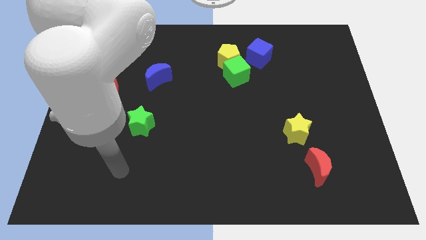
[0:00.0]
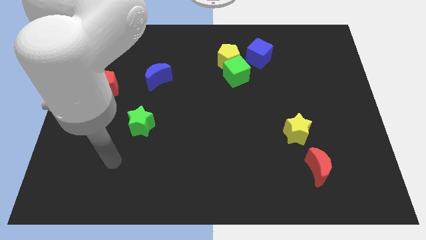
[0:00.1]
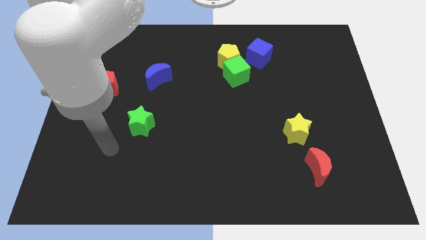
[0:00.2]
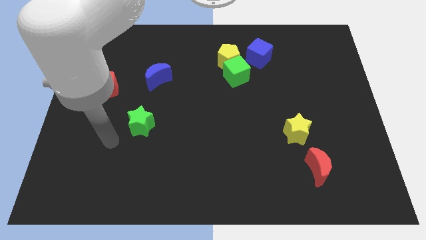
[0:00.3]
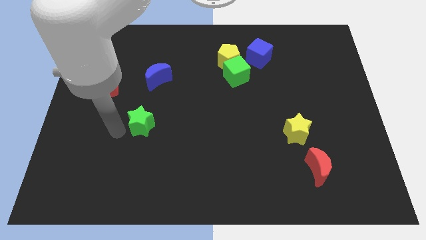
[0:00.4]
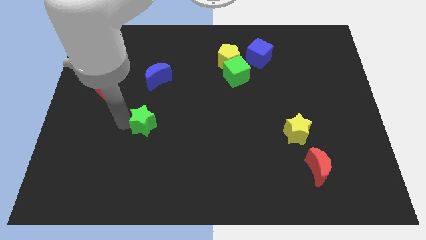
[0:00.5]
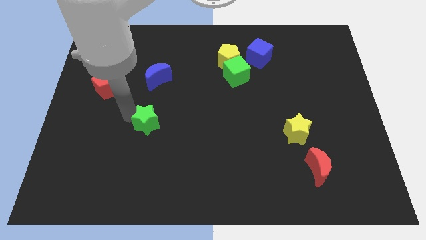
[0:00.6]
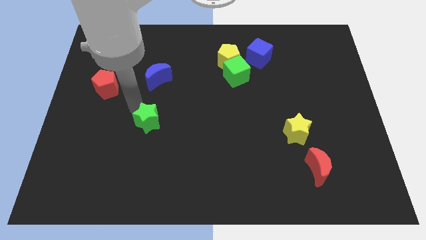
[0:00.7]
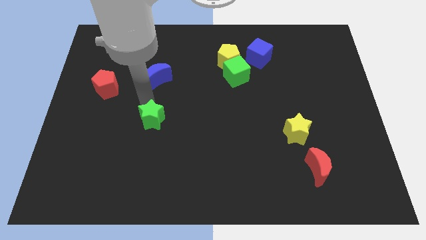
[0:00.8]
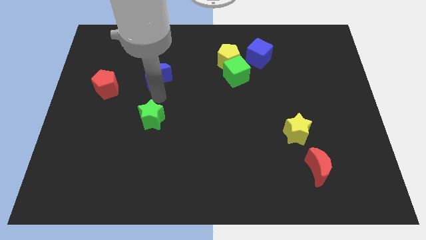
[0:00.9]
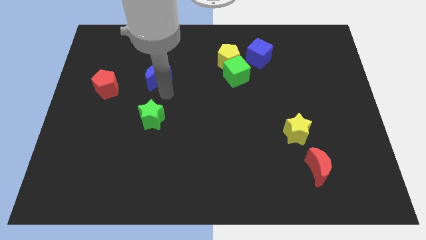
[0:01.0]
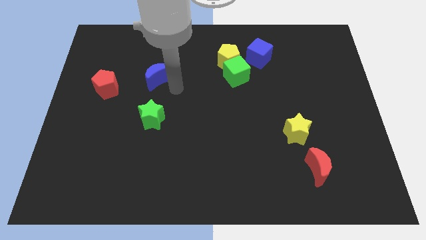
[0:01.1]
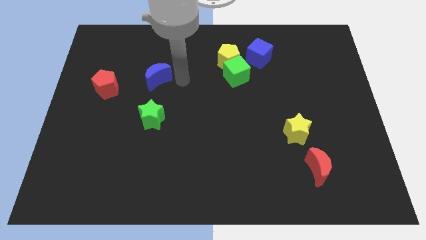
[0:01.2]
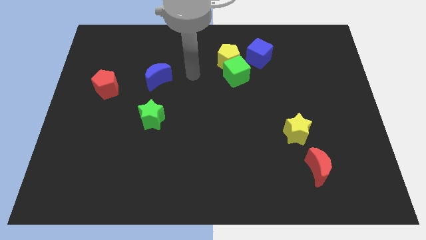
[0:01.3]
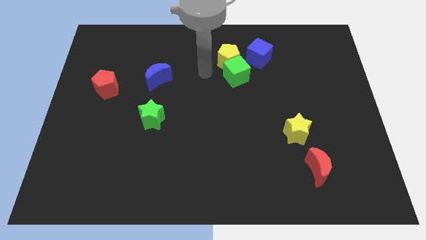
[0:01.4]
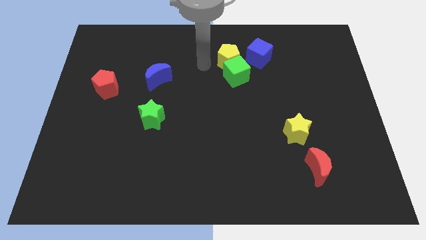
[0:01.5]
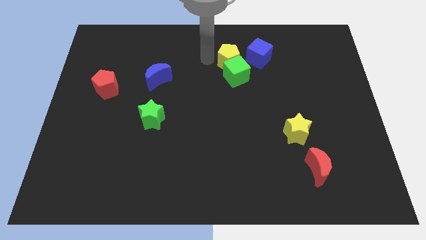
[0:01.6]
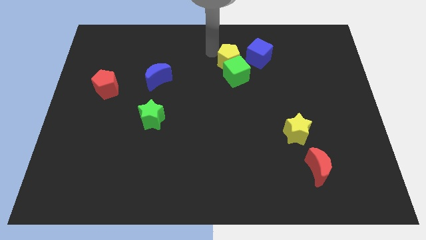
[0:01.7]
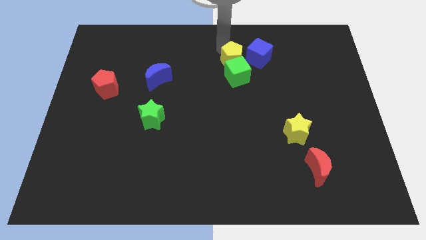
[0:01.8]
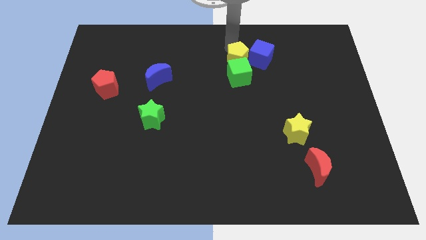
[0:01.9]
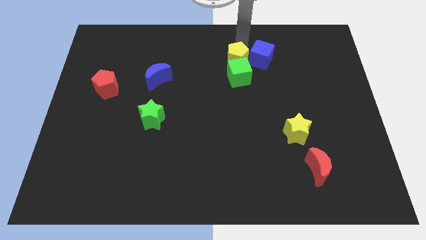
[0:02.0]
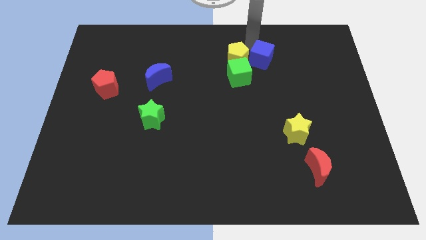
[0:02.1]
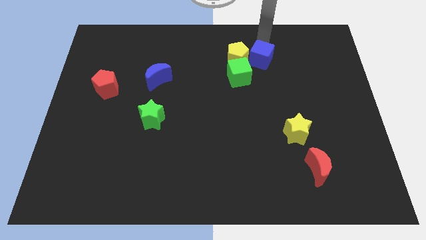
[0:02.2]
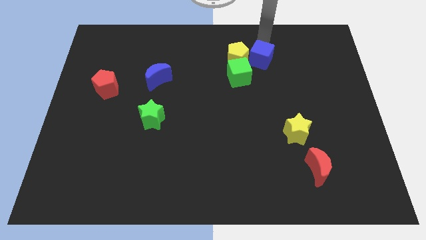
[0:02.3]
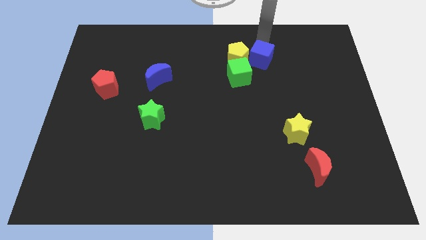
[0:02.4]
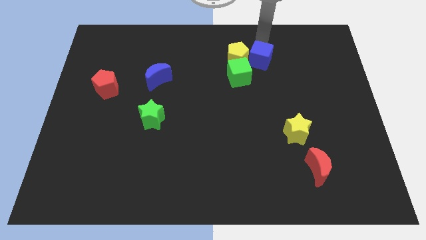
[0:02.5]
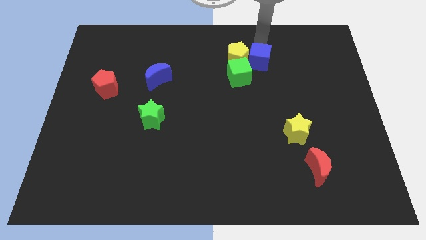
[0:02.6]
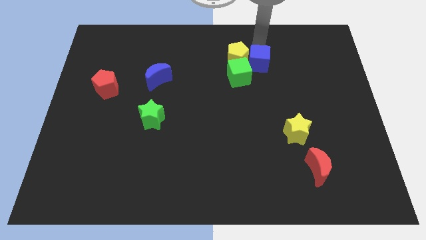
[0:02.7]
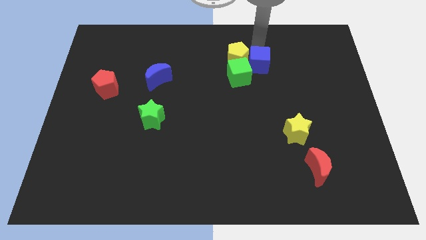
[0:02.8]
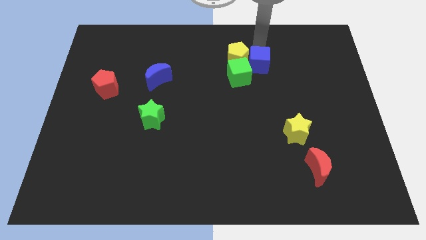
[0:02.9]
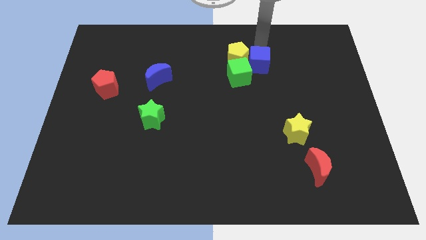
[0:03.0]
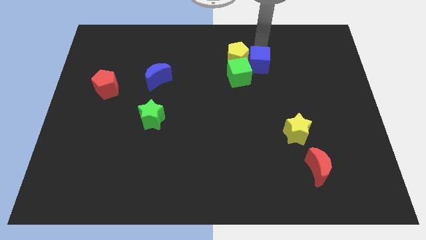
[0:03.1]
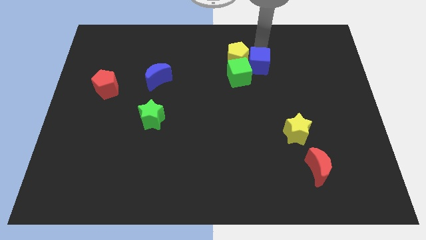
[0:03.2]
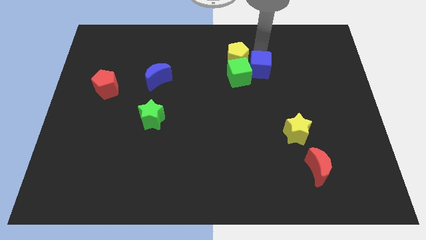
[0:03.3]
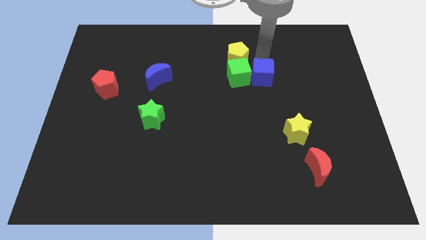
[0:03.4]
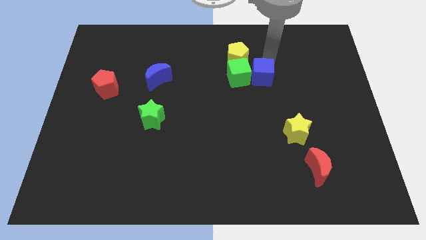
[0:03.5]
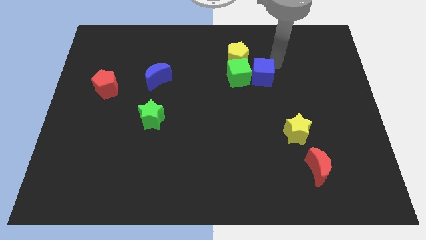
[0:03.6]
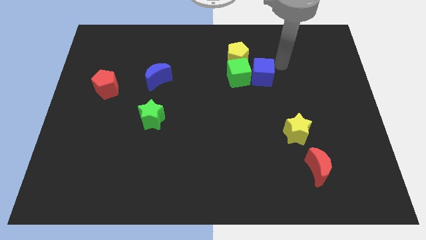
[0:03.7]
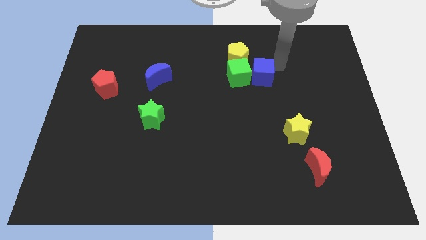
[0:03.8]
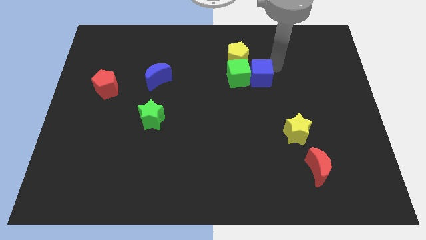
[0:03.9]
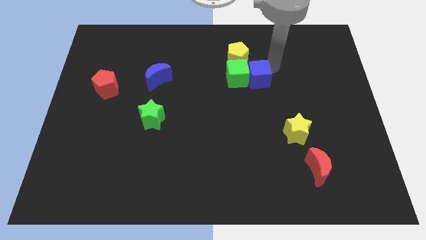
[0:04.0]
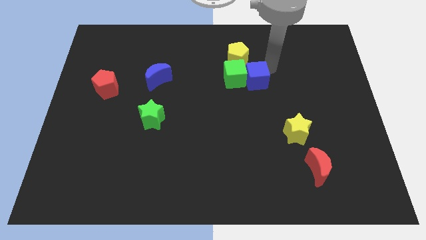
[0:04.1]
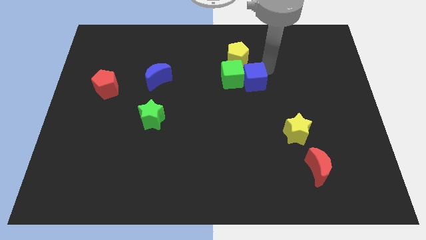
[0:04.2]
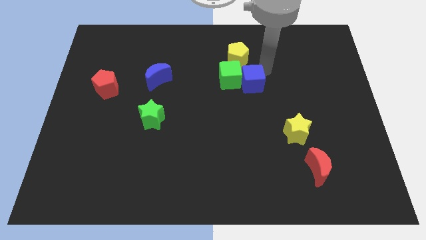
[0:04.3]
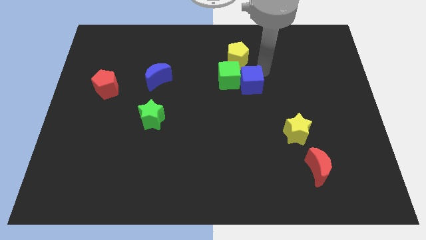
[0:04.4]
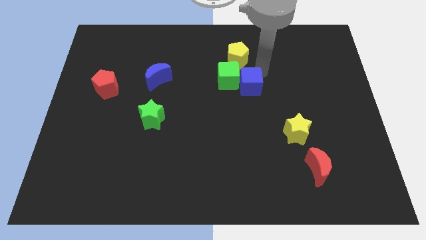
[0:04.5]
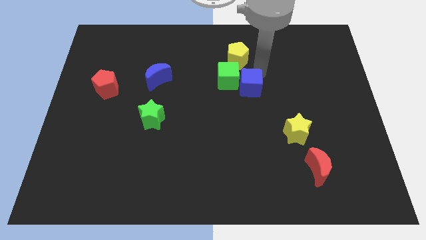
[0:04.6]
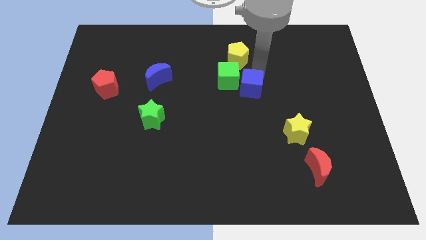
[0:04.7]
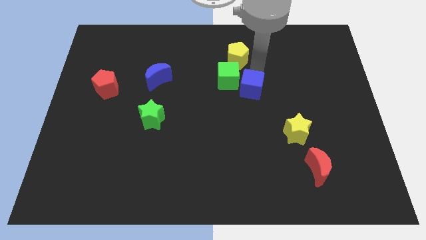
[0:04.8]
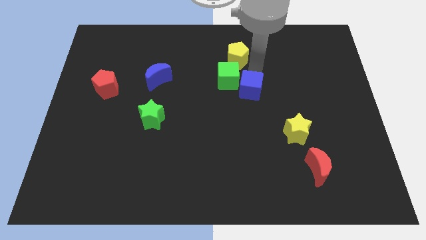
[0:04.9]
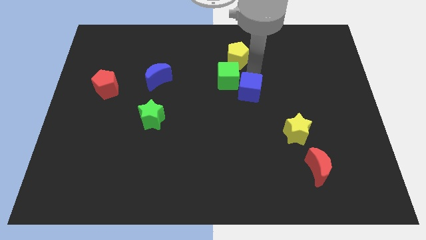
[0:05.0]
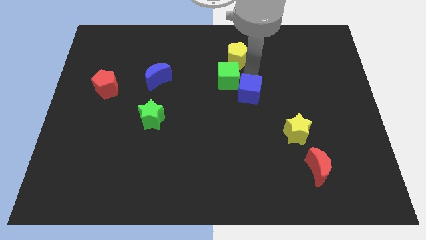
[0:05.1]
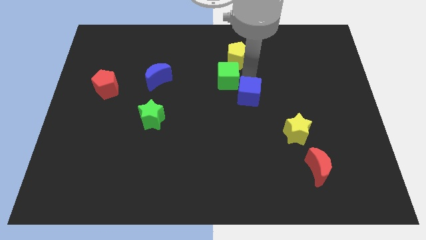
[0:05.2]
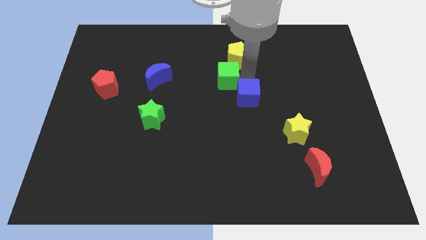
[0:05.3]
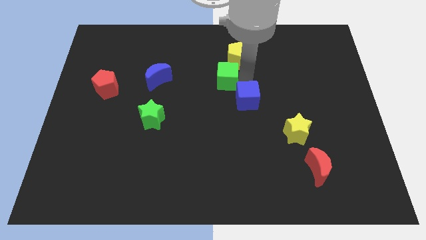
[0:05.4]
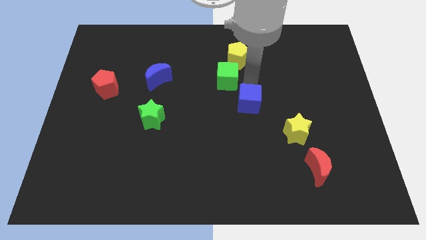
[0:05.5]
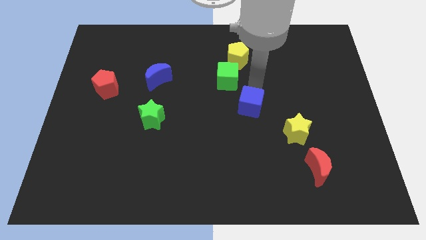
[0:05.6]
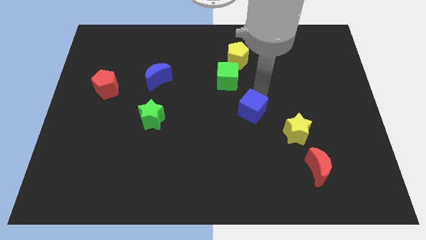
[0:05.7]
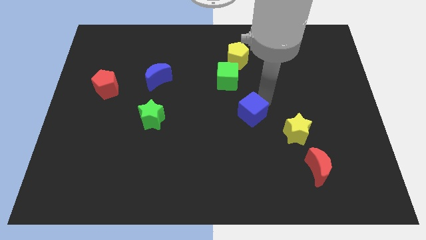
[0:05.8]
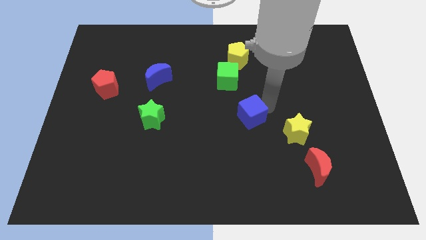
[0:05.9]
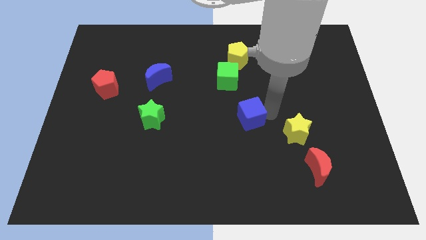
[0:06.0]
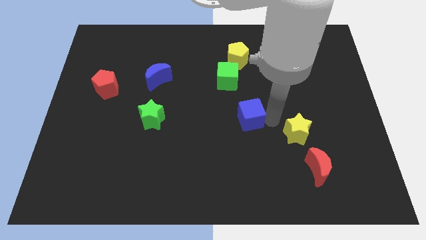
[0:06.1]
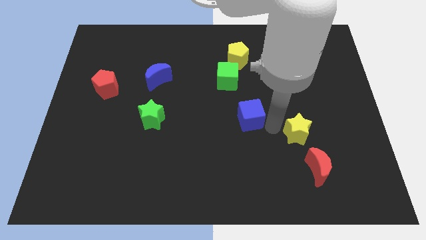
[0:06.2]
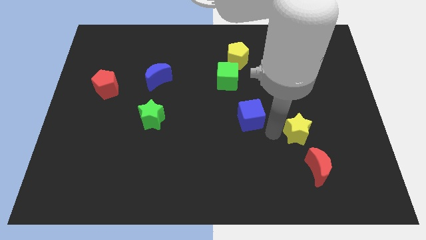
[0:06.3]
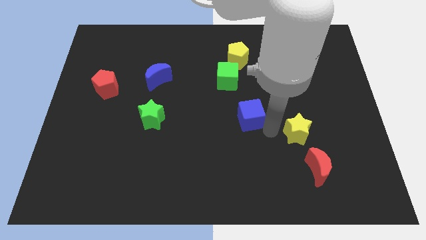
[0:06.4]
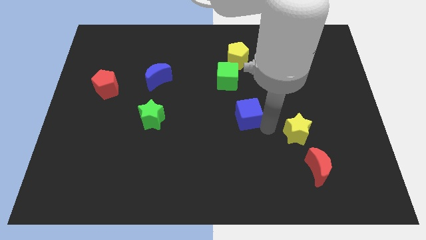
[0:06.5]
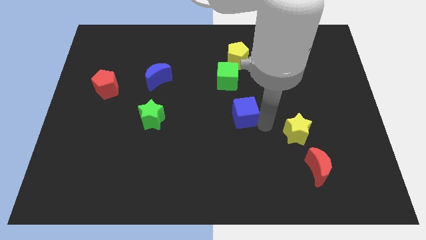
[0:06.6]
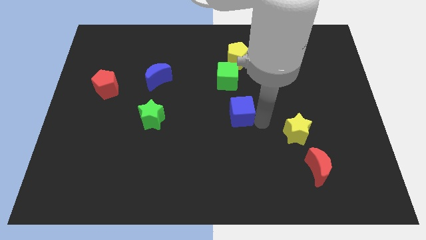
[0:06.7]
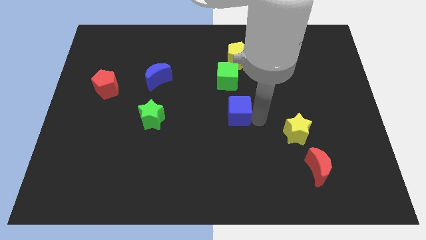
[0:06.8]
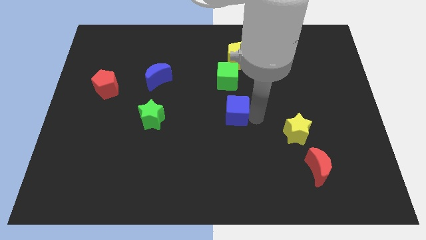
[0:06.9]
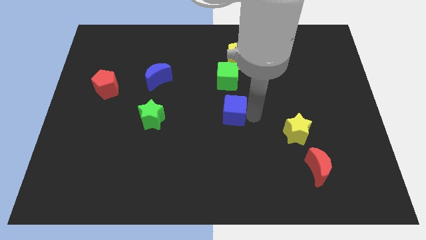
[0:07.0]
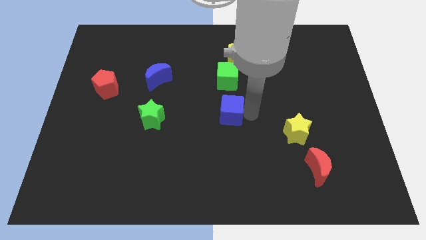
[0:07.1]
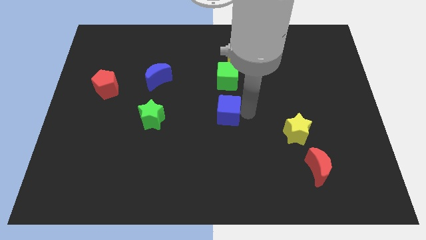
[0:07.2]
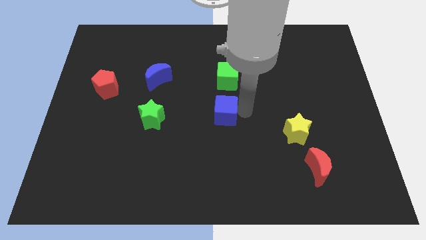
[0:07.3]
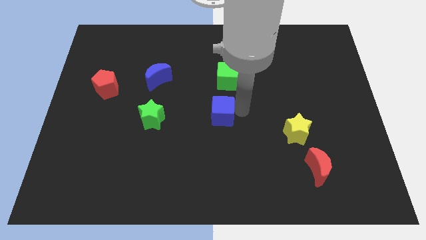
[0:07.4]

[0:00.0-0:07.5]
move the blue cube right of the green star

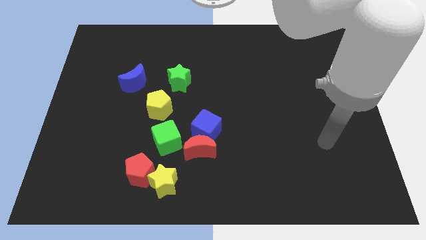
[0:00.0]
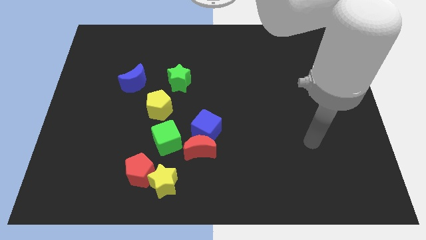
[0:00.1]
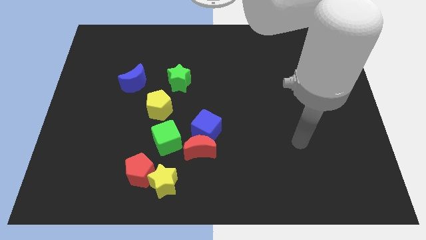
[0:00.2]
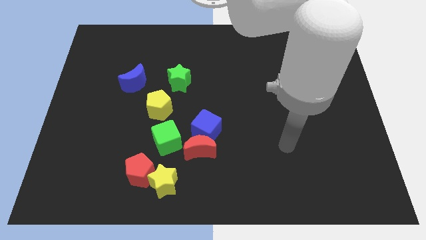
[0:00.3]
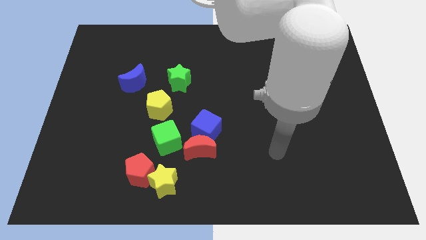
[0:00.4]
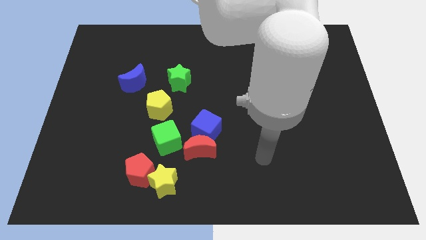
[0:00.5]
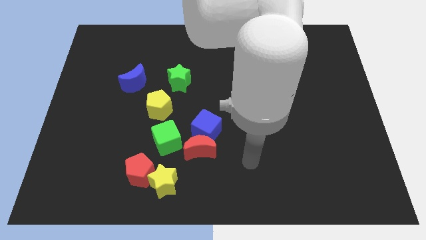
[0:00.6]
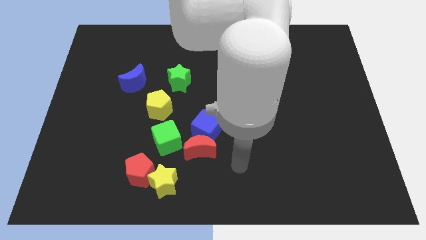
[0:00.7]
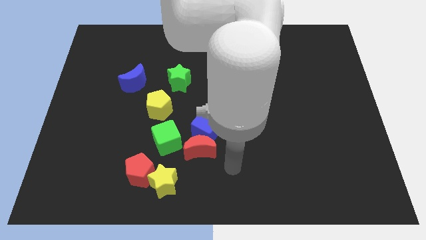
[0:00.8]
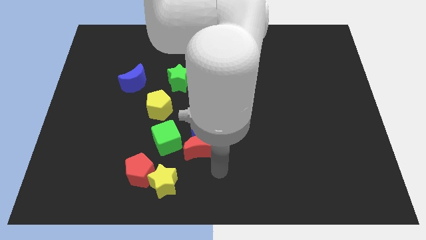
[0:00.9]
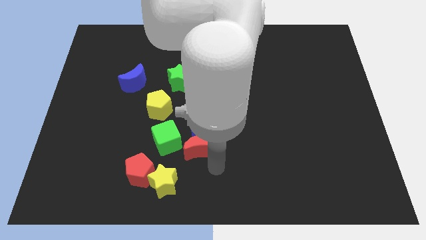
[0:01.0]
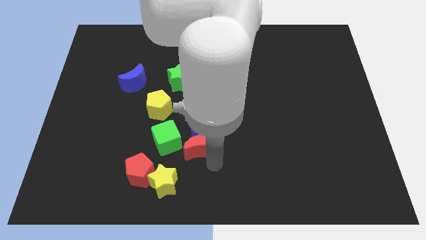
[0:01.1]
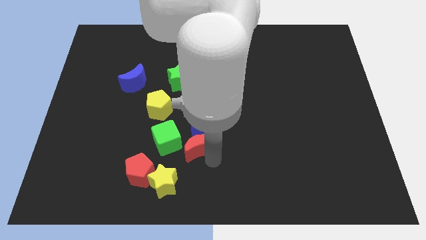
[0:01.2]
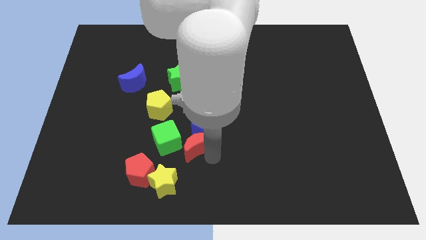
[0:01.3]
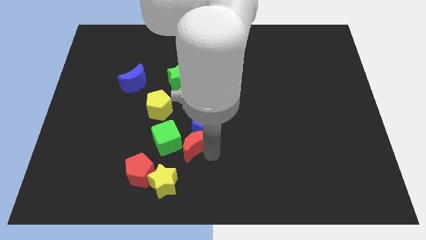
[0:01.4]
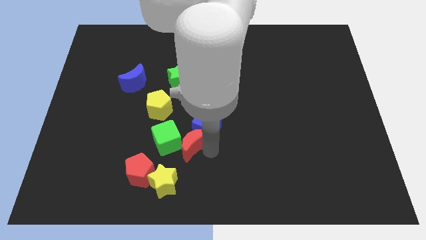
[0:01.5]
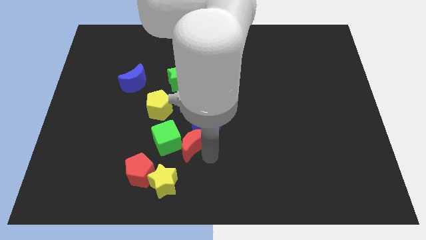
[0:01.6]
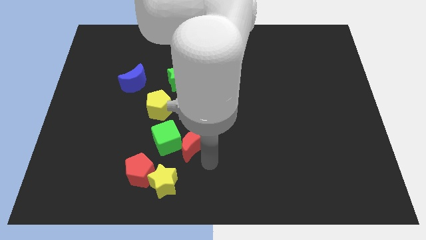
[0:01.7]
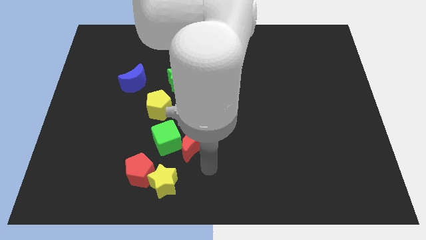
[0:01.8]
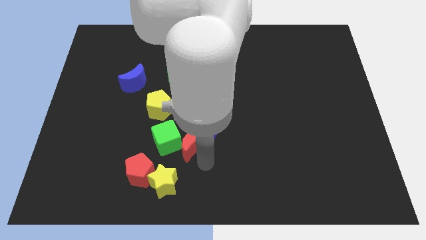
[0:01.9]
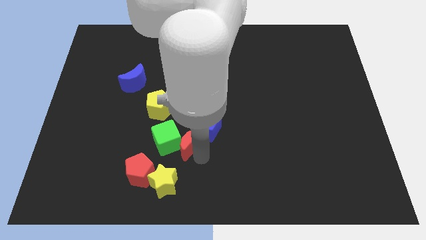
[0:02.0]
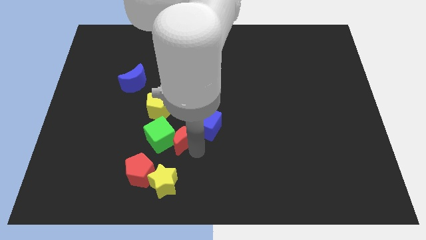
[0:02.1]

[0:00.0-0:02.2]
slide the red moon to the bottom right of the yellow pentagon
